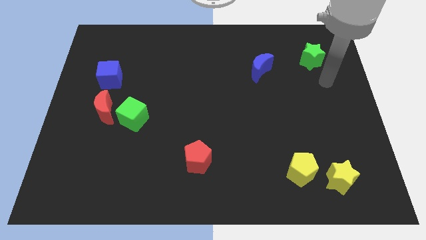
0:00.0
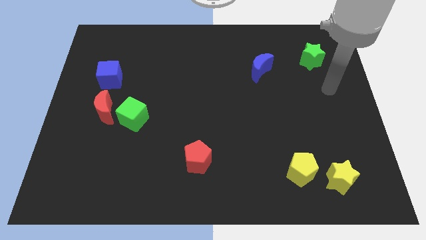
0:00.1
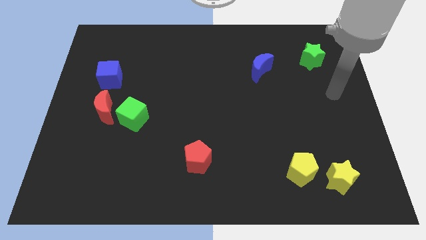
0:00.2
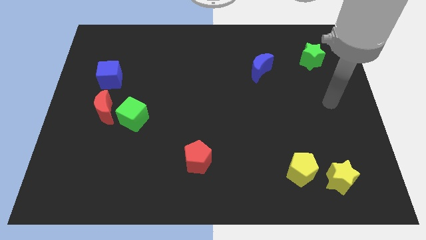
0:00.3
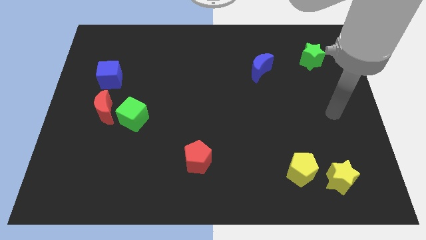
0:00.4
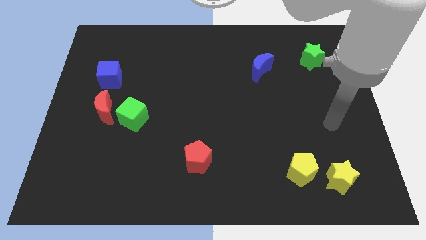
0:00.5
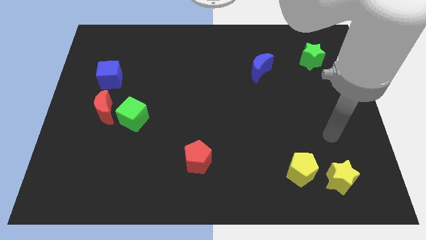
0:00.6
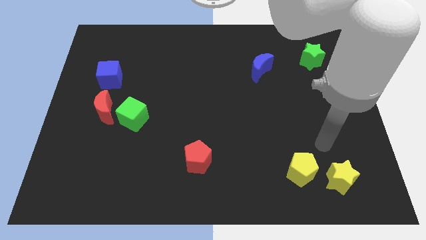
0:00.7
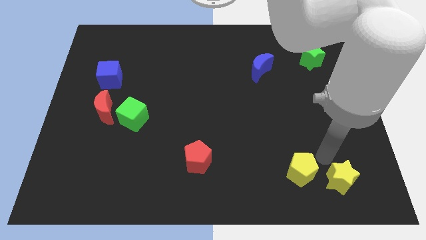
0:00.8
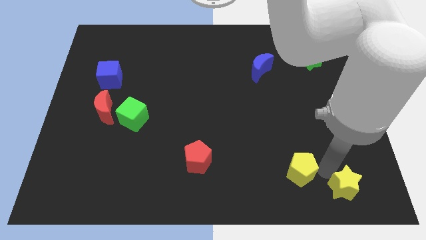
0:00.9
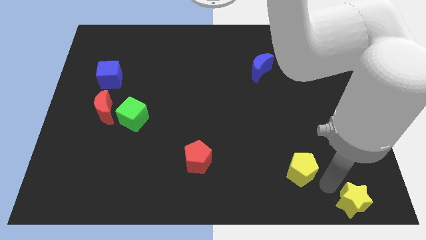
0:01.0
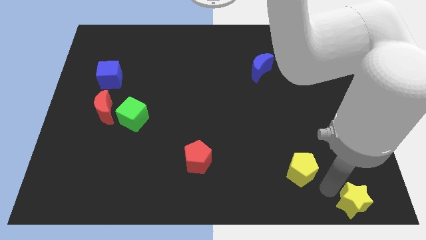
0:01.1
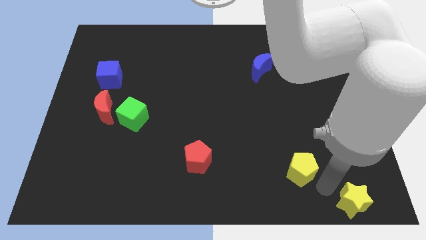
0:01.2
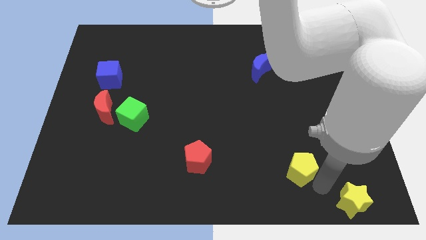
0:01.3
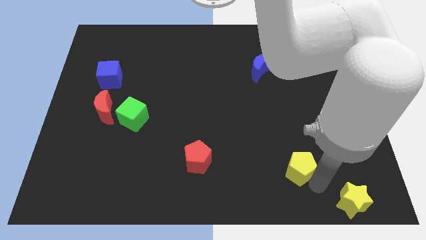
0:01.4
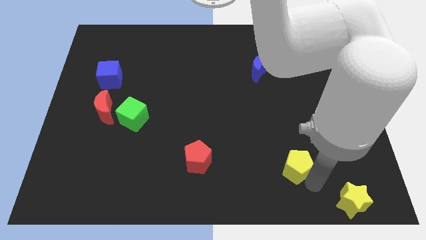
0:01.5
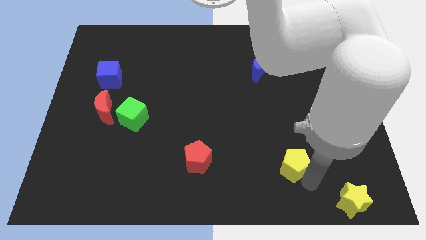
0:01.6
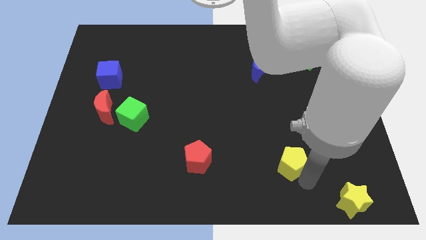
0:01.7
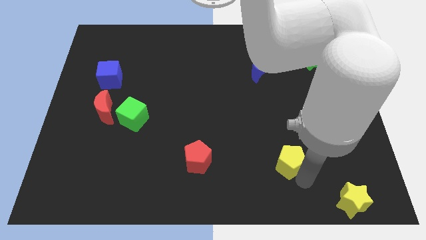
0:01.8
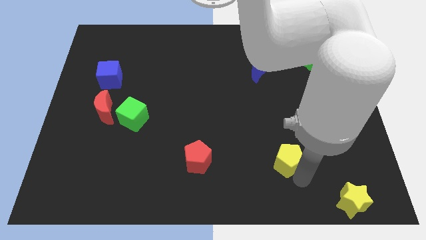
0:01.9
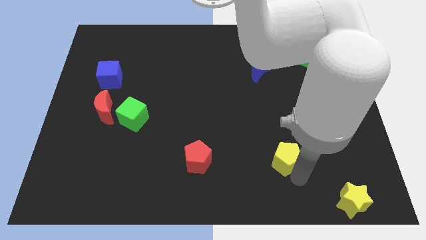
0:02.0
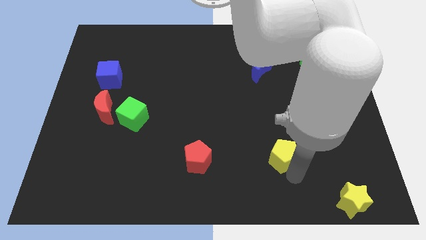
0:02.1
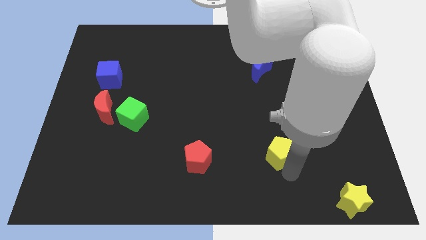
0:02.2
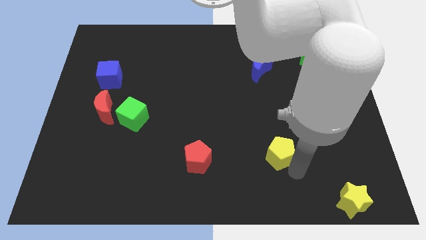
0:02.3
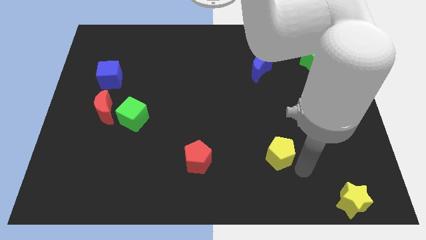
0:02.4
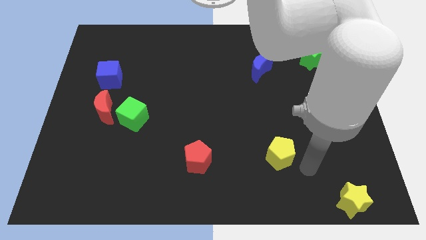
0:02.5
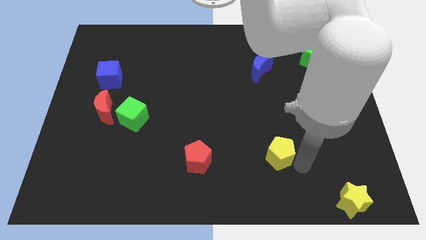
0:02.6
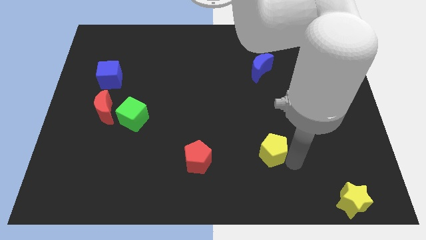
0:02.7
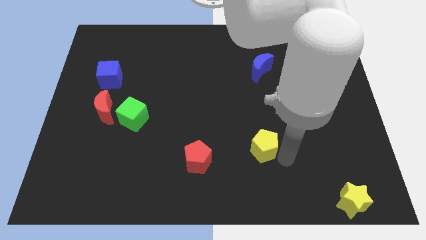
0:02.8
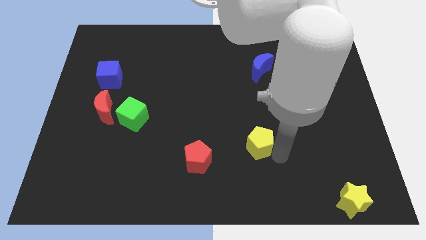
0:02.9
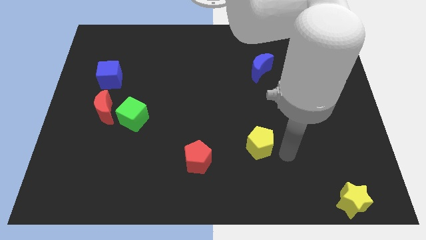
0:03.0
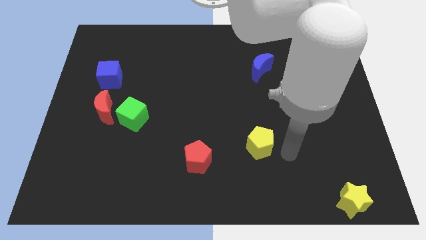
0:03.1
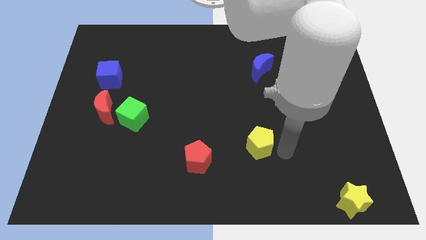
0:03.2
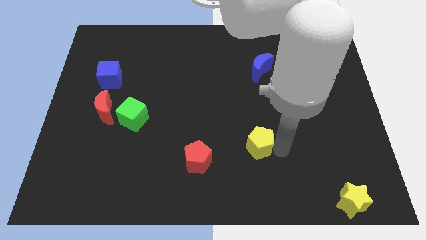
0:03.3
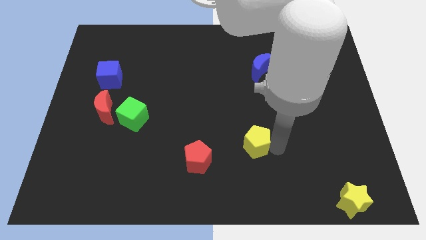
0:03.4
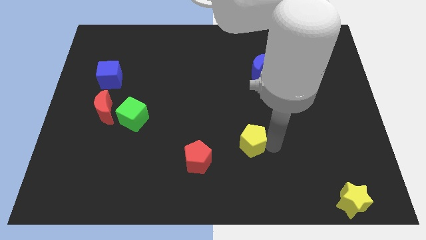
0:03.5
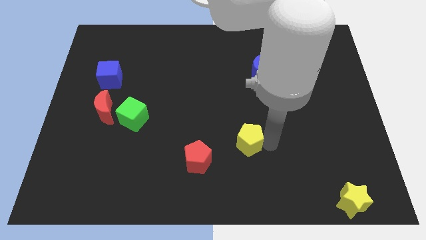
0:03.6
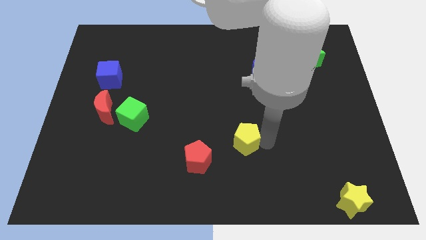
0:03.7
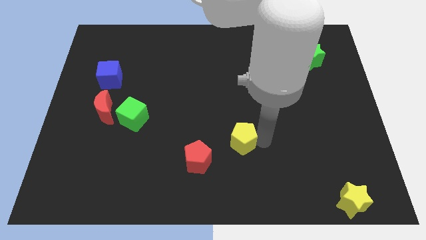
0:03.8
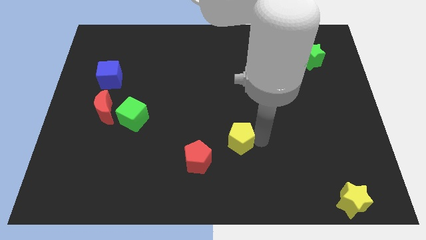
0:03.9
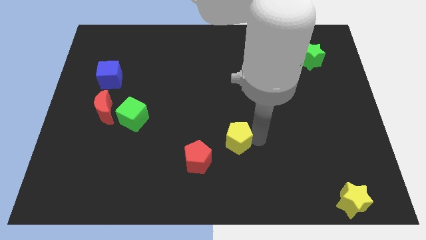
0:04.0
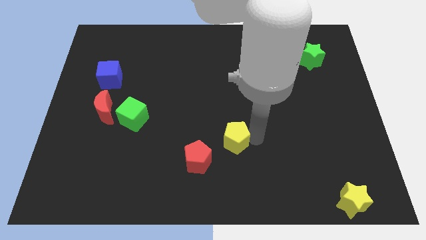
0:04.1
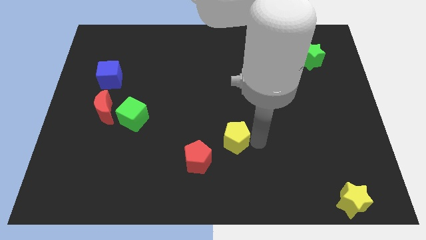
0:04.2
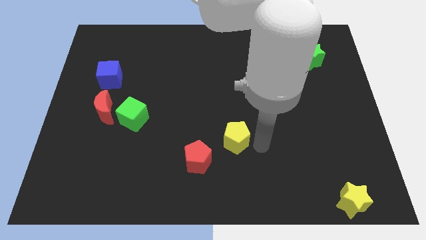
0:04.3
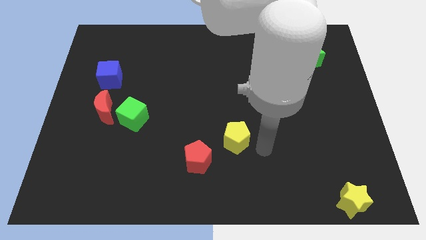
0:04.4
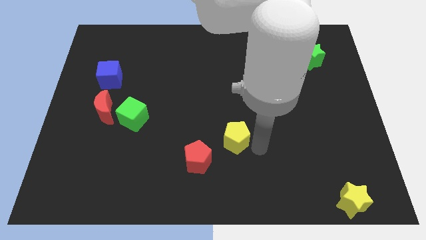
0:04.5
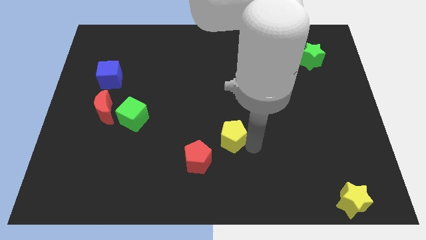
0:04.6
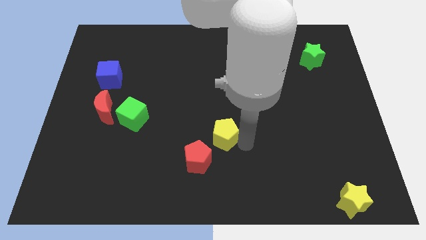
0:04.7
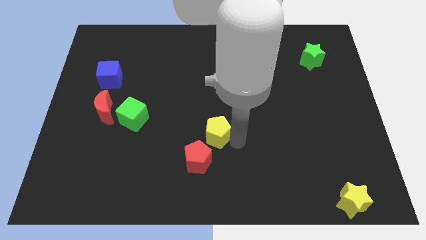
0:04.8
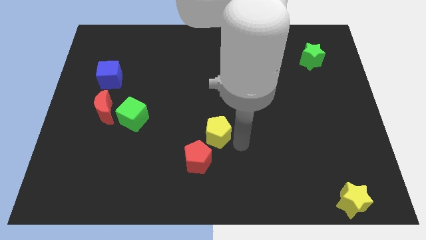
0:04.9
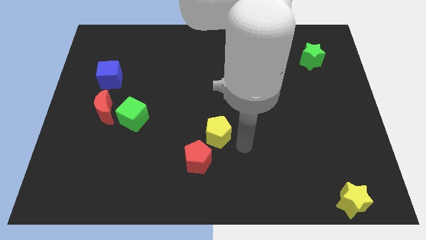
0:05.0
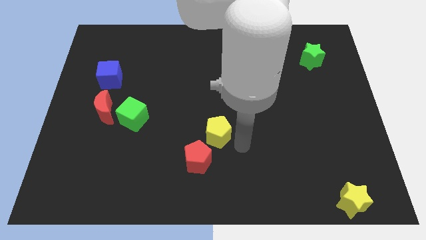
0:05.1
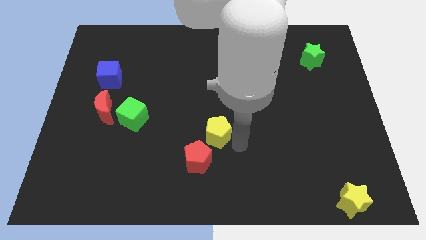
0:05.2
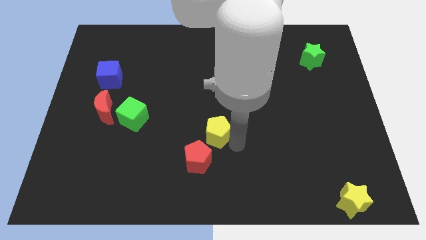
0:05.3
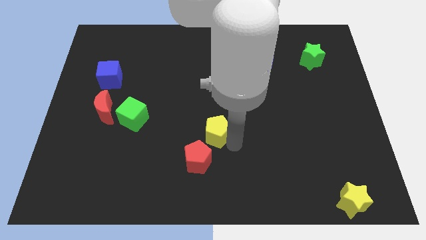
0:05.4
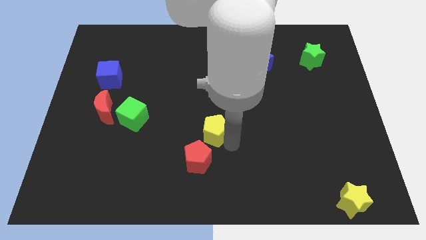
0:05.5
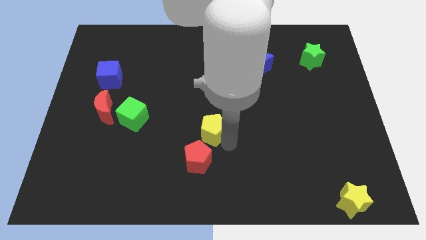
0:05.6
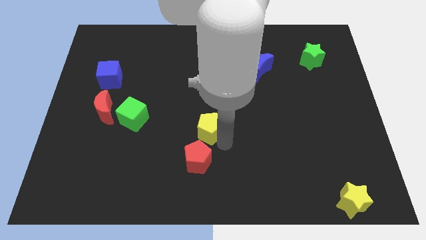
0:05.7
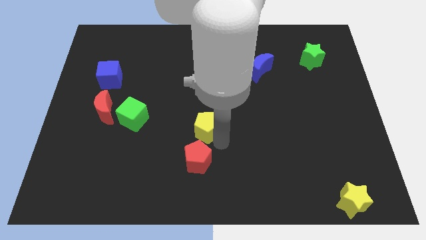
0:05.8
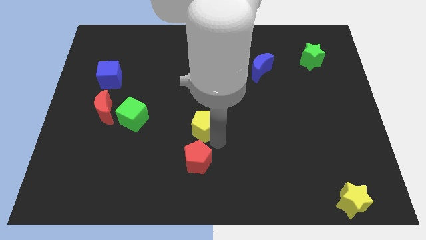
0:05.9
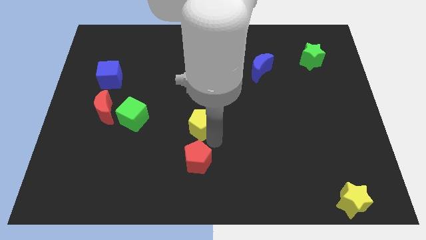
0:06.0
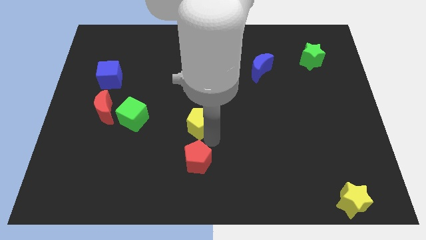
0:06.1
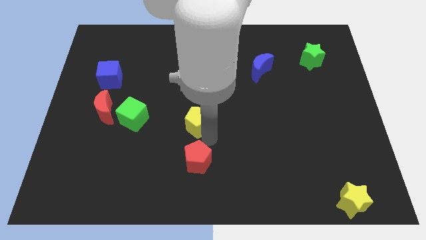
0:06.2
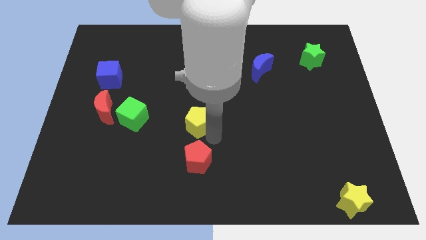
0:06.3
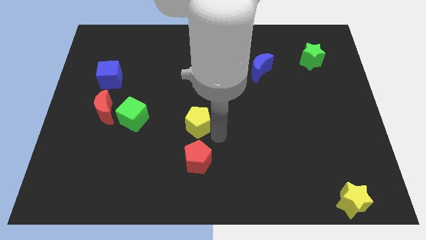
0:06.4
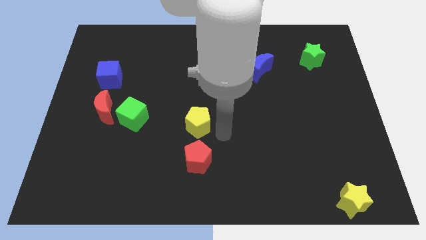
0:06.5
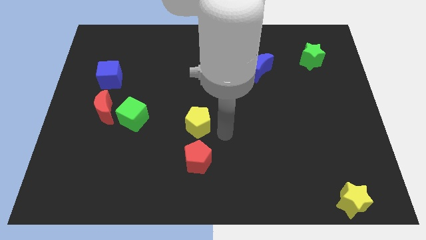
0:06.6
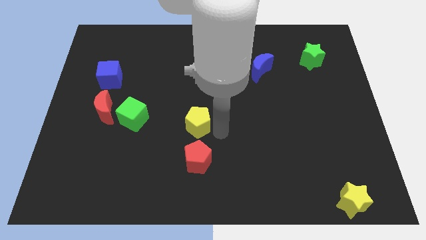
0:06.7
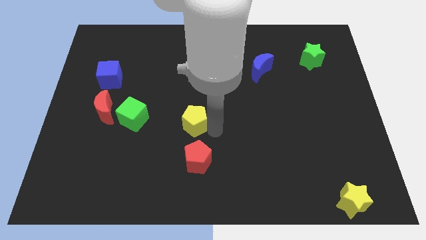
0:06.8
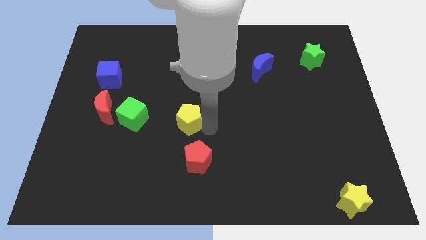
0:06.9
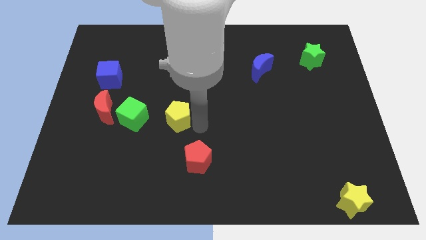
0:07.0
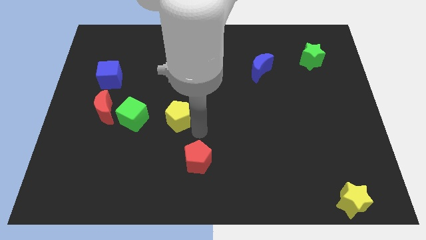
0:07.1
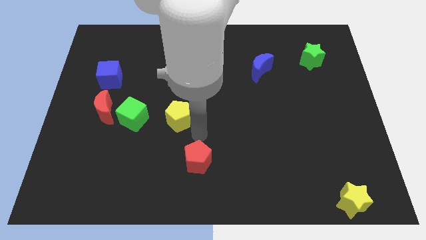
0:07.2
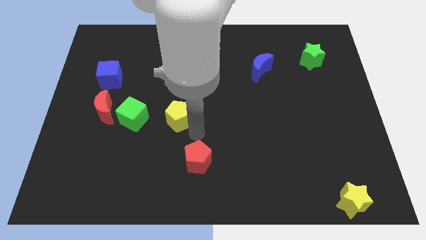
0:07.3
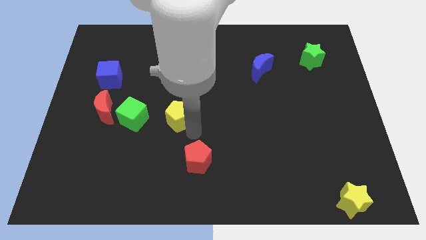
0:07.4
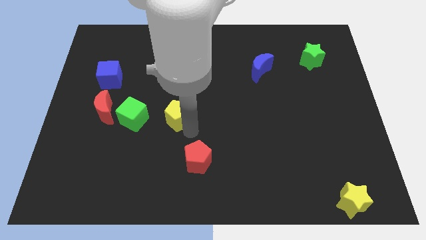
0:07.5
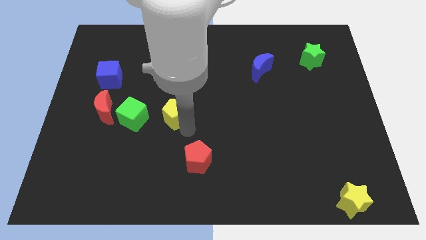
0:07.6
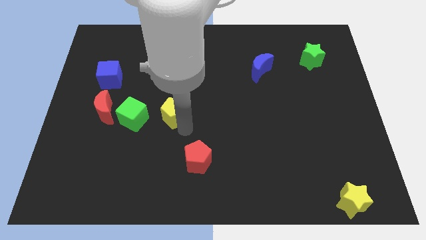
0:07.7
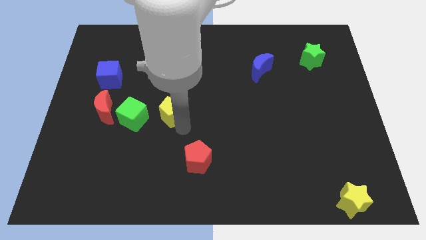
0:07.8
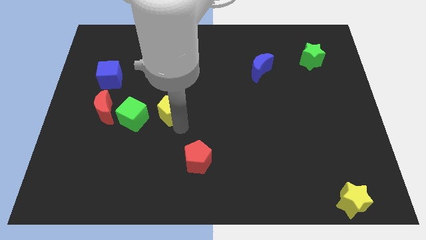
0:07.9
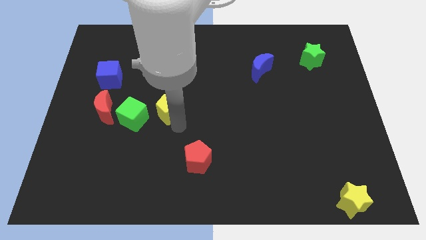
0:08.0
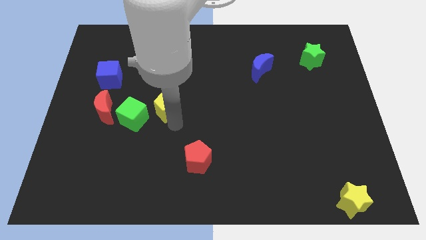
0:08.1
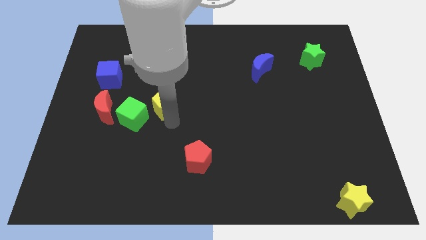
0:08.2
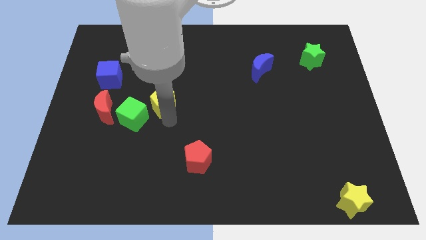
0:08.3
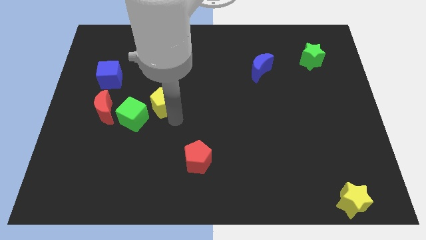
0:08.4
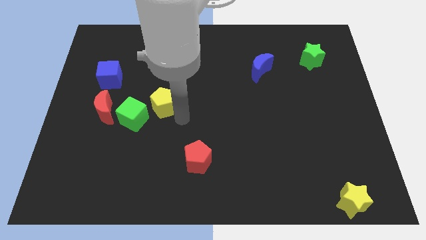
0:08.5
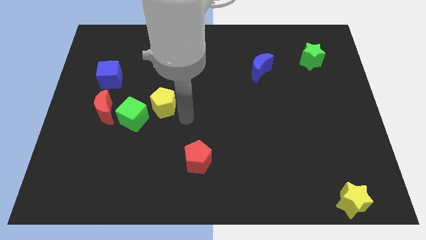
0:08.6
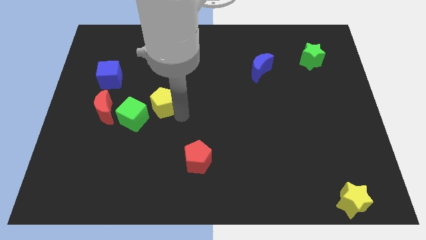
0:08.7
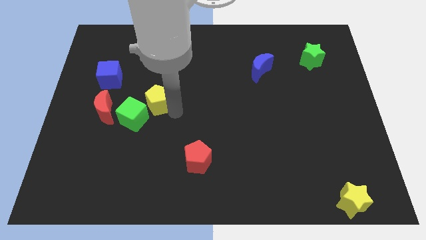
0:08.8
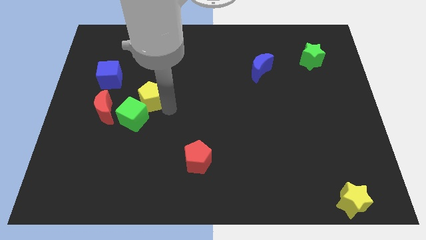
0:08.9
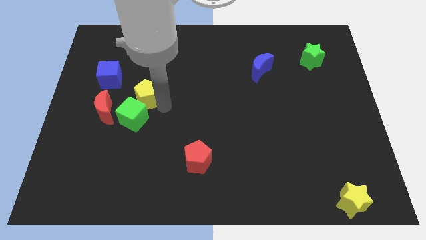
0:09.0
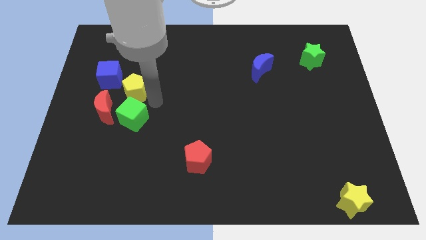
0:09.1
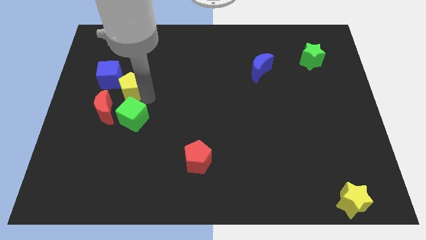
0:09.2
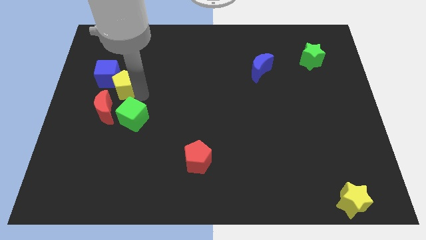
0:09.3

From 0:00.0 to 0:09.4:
push the yellow pentagon next to the blue cube
